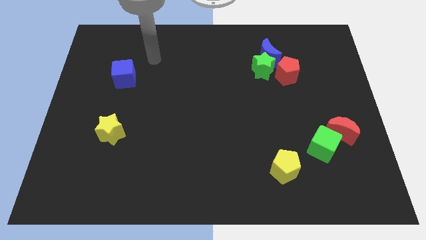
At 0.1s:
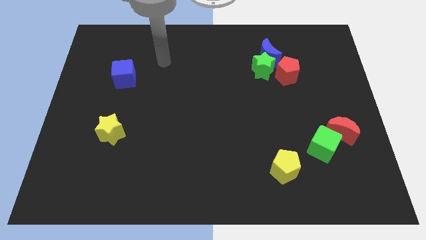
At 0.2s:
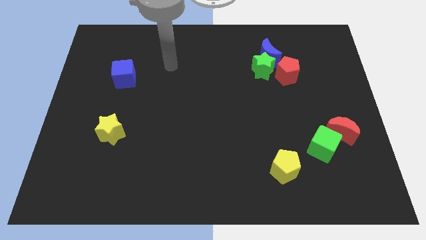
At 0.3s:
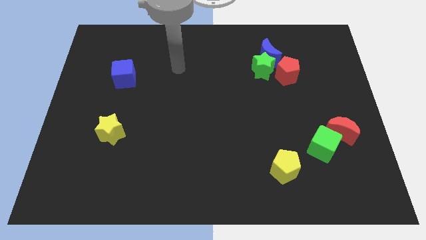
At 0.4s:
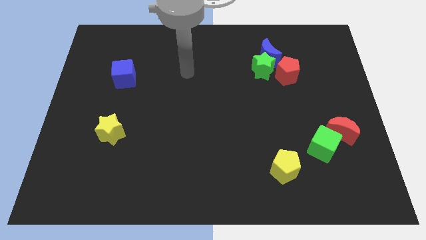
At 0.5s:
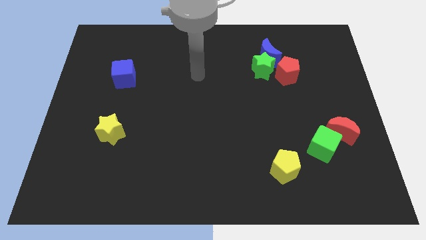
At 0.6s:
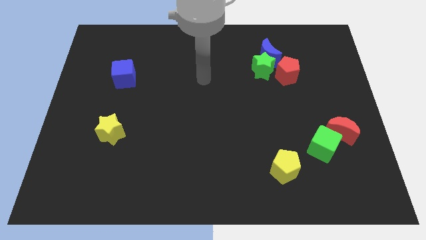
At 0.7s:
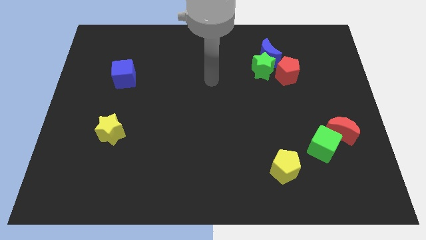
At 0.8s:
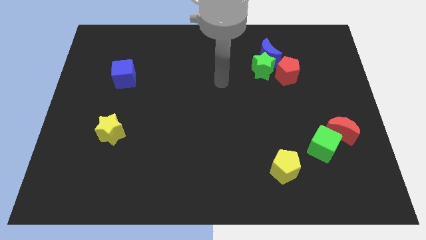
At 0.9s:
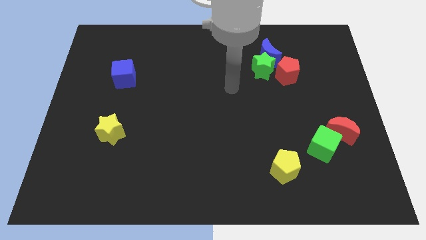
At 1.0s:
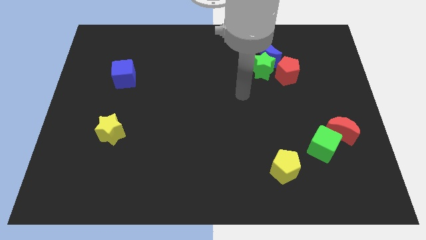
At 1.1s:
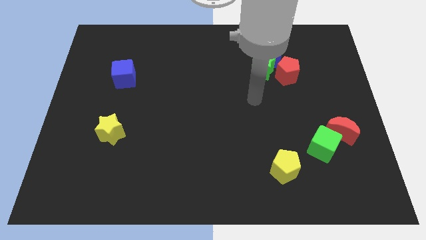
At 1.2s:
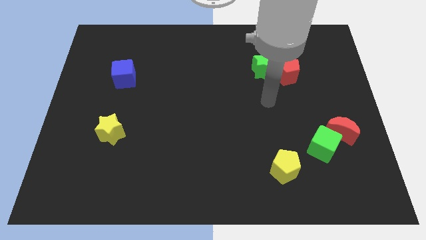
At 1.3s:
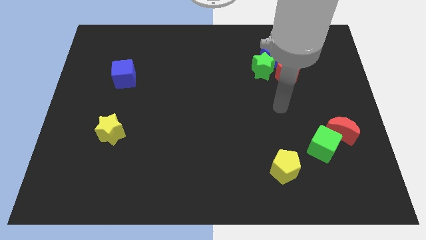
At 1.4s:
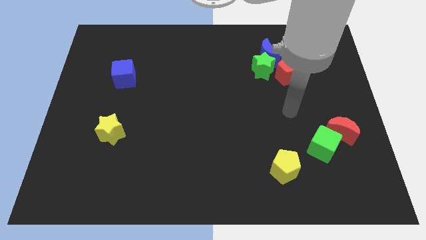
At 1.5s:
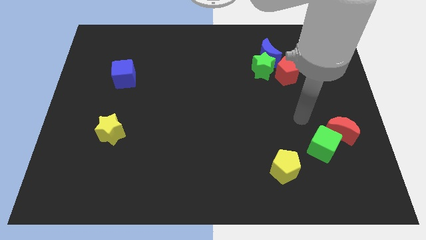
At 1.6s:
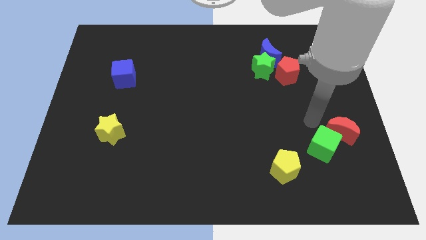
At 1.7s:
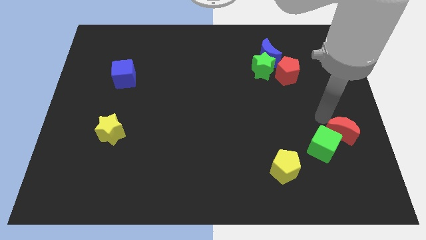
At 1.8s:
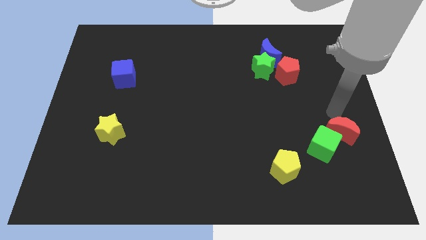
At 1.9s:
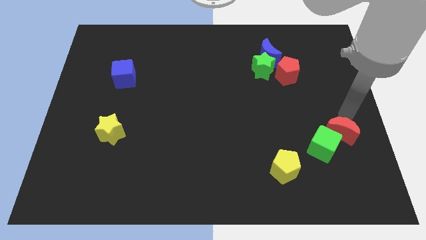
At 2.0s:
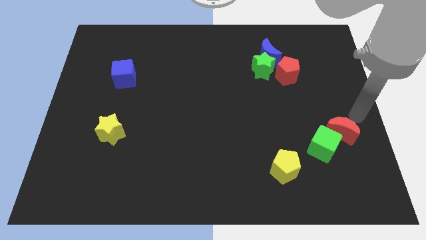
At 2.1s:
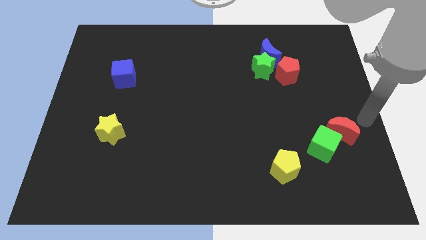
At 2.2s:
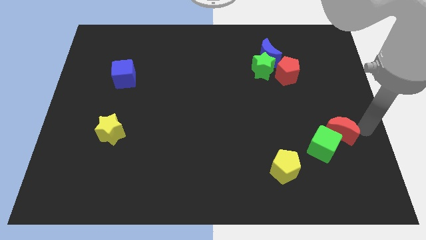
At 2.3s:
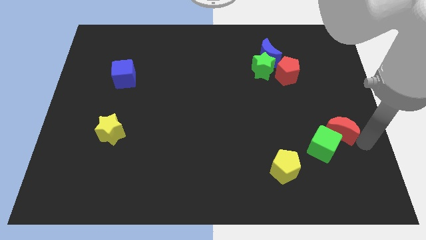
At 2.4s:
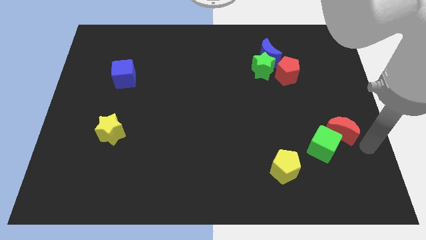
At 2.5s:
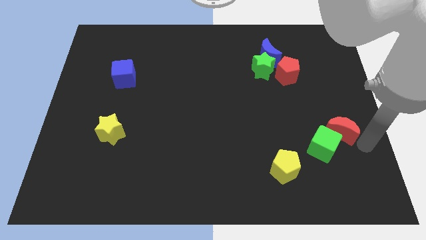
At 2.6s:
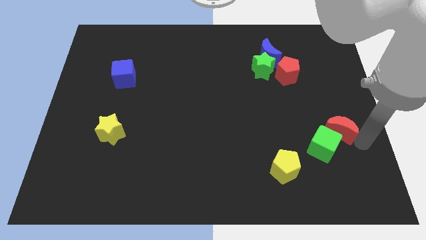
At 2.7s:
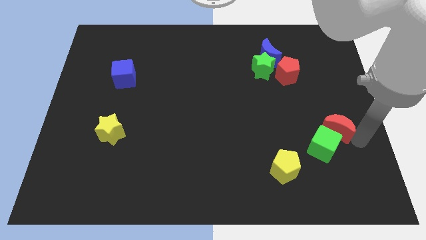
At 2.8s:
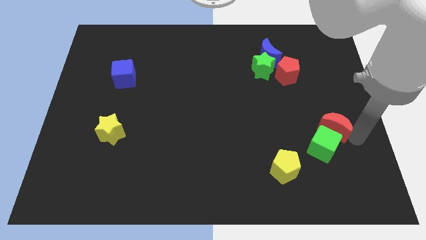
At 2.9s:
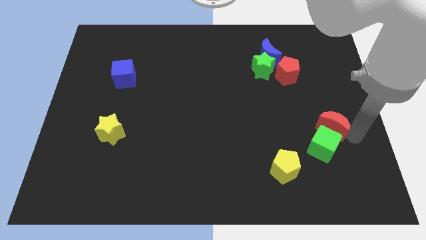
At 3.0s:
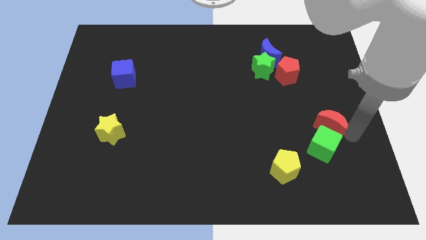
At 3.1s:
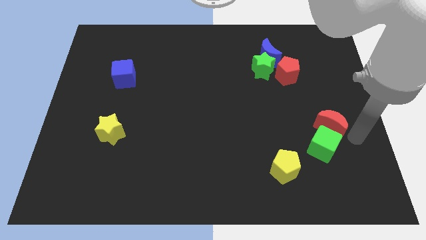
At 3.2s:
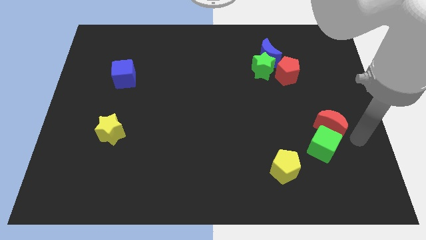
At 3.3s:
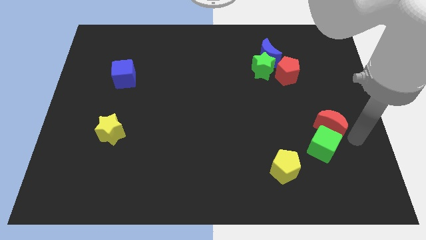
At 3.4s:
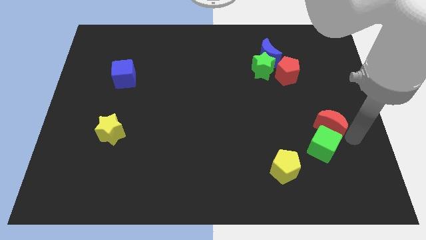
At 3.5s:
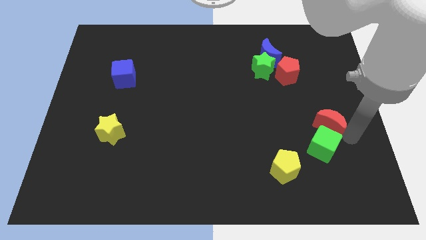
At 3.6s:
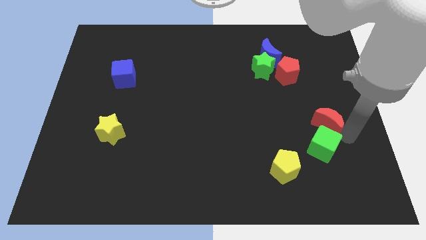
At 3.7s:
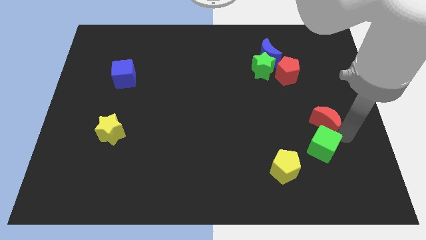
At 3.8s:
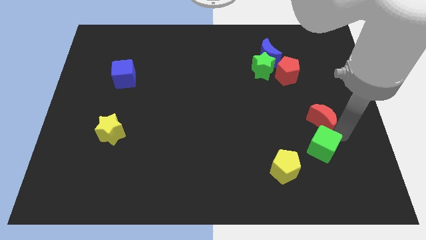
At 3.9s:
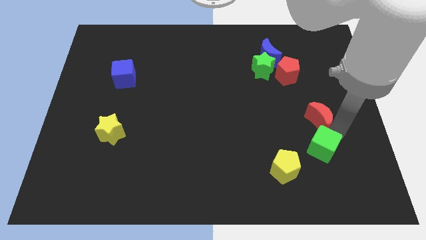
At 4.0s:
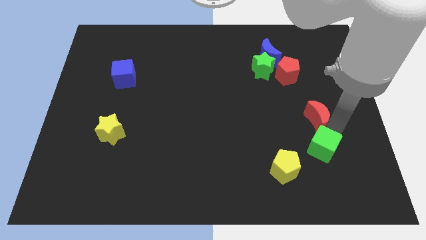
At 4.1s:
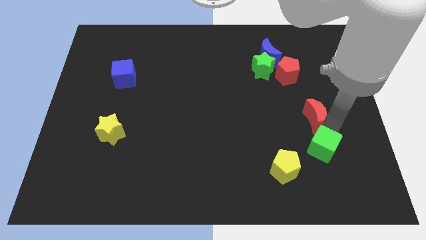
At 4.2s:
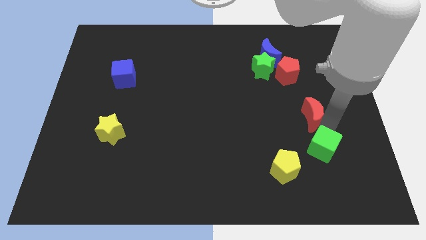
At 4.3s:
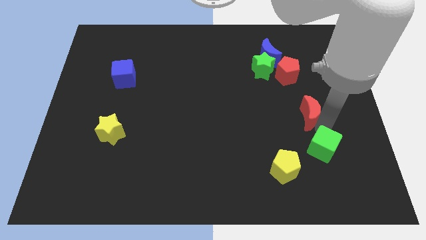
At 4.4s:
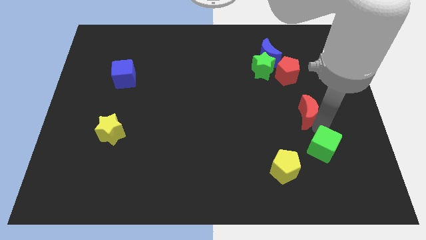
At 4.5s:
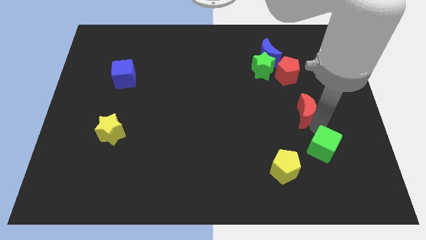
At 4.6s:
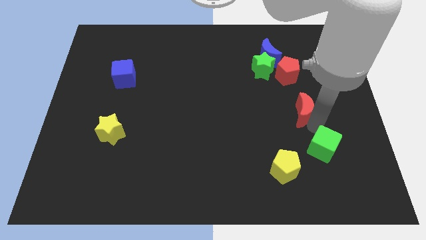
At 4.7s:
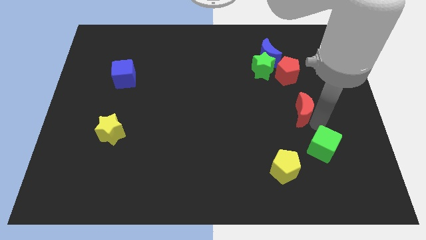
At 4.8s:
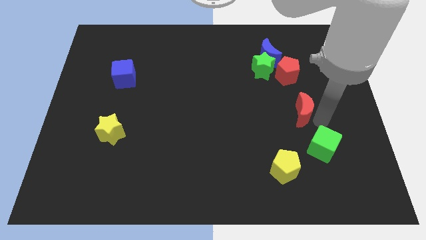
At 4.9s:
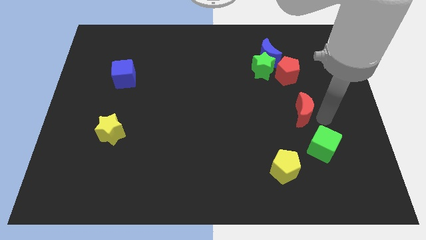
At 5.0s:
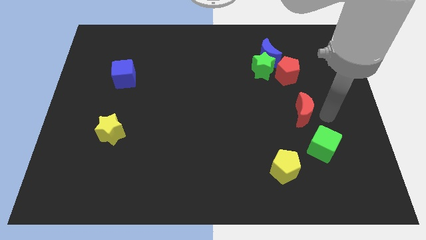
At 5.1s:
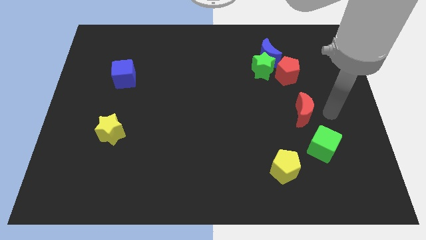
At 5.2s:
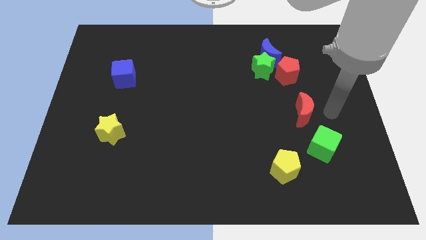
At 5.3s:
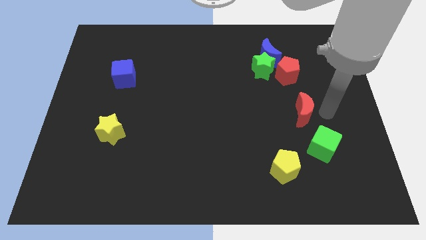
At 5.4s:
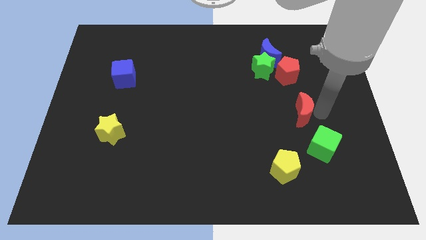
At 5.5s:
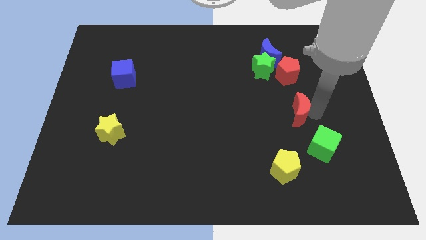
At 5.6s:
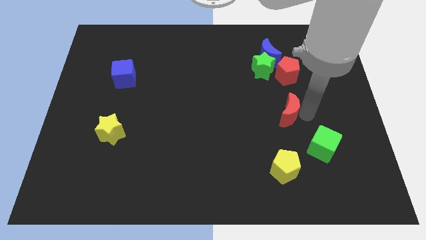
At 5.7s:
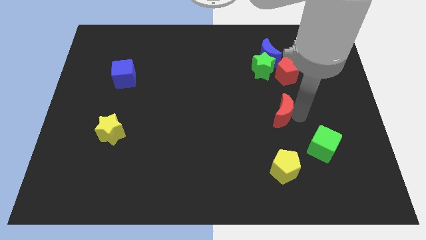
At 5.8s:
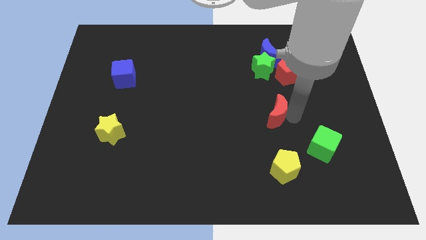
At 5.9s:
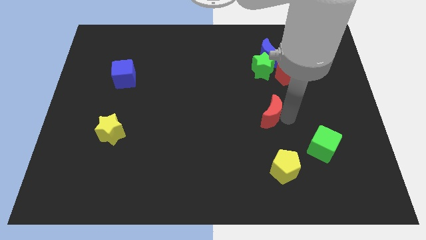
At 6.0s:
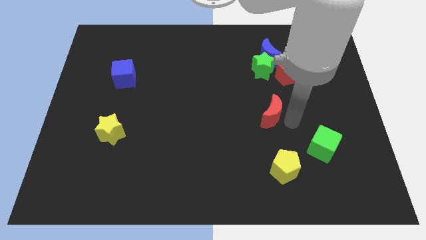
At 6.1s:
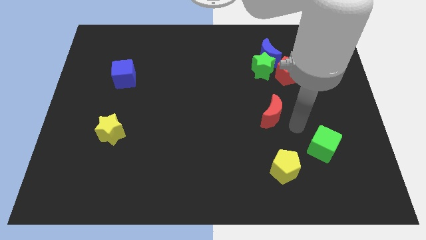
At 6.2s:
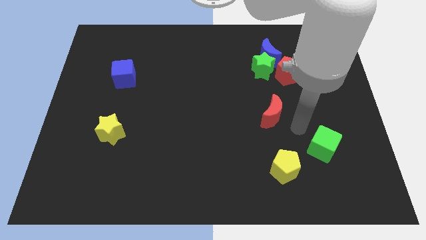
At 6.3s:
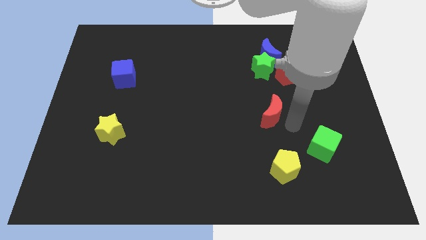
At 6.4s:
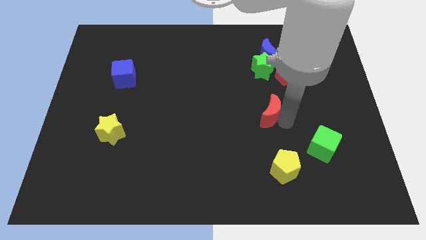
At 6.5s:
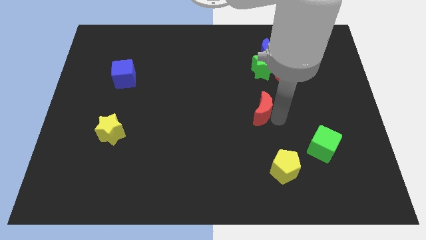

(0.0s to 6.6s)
move the red moon to the center

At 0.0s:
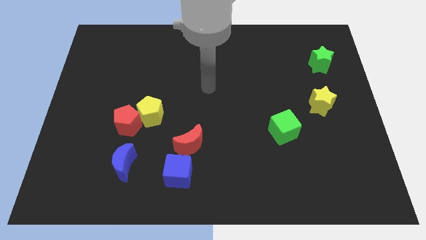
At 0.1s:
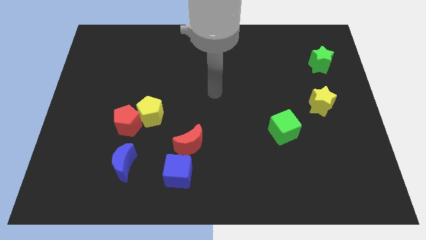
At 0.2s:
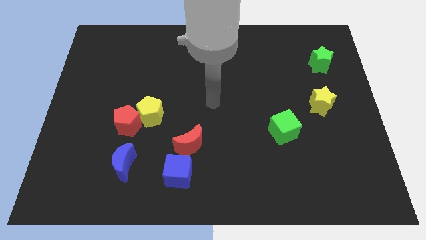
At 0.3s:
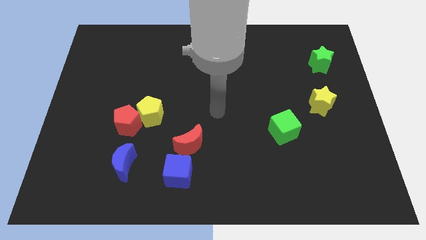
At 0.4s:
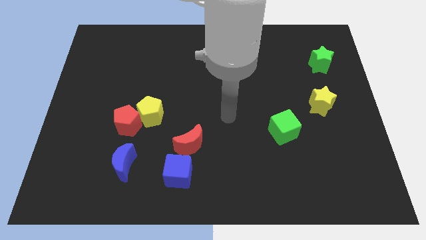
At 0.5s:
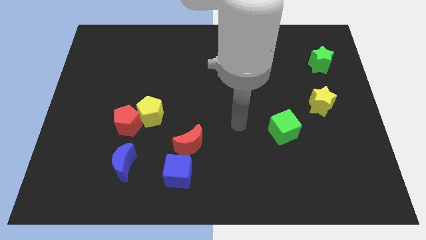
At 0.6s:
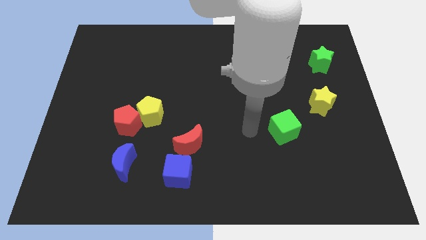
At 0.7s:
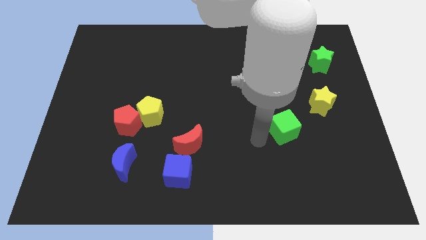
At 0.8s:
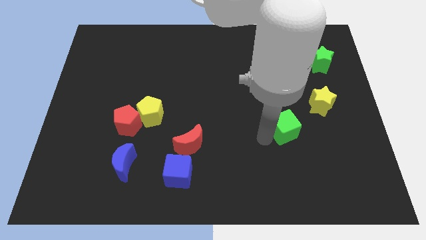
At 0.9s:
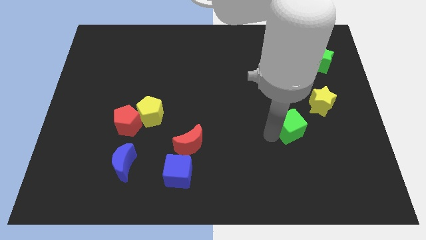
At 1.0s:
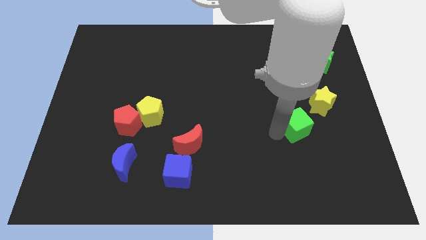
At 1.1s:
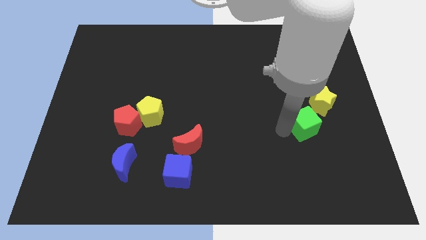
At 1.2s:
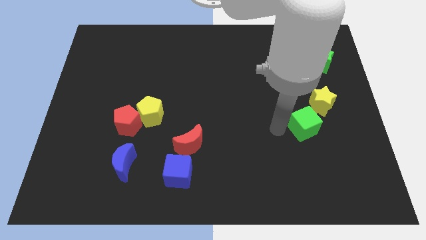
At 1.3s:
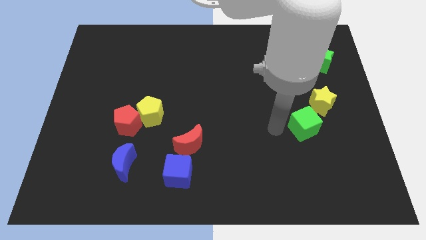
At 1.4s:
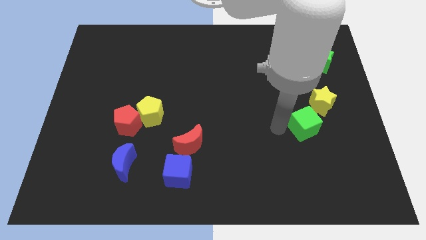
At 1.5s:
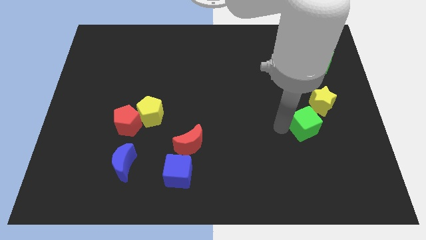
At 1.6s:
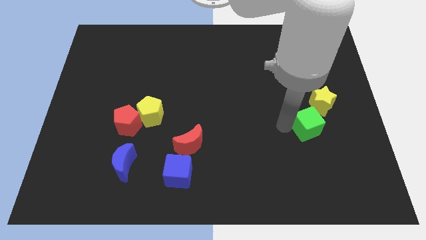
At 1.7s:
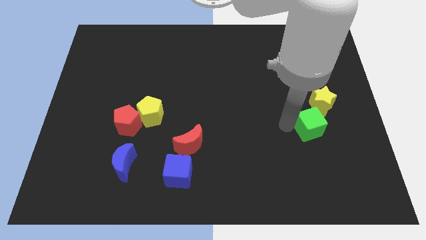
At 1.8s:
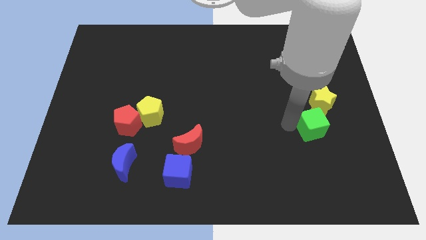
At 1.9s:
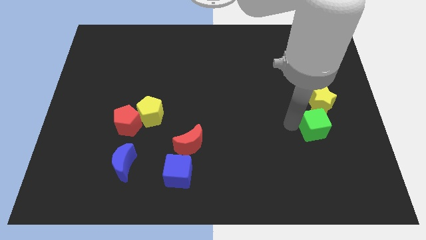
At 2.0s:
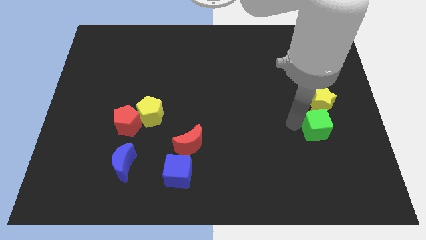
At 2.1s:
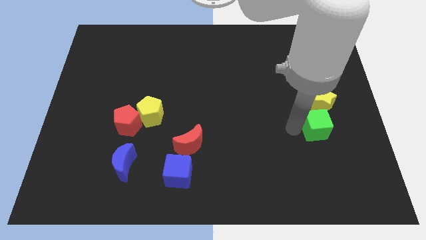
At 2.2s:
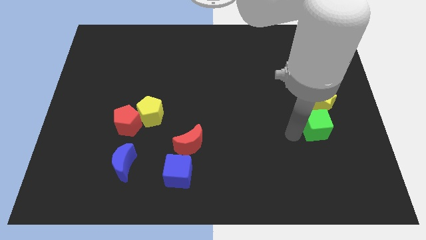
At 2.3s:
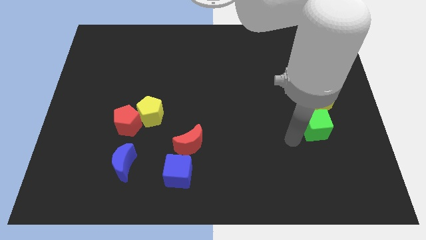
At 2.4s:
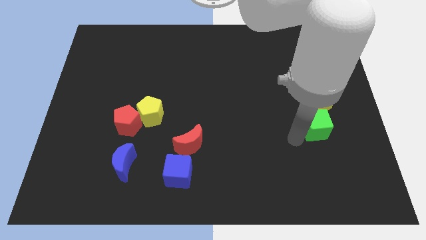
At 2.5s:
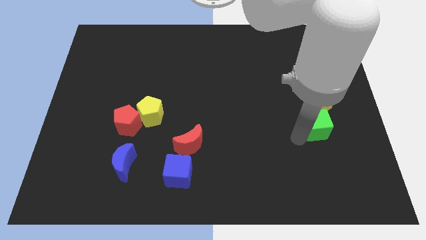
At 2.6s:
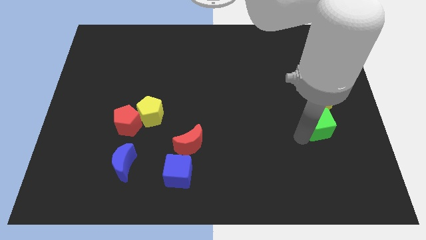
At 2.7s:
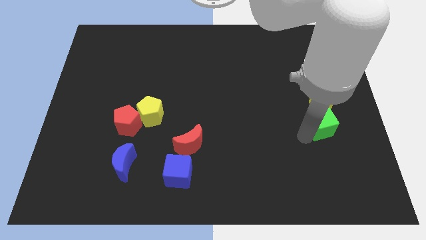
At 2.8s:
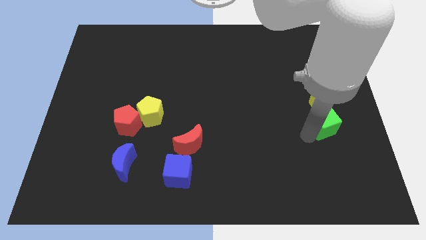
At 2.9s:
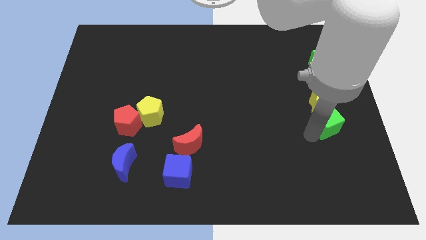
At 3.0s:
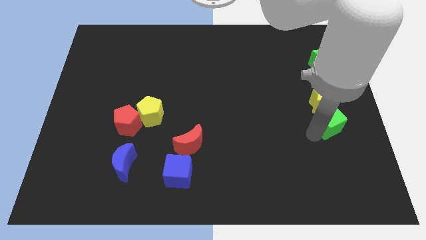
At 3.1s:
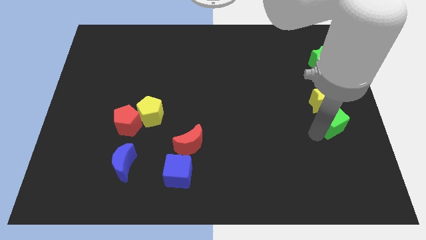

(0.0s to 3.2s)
move the green cube to the right side
